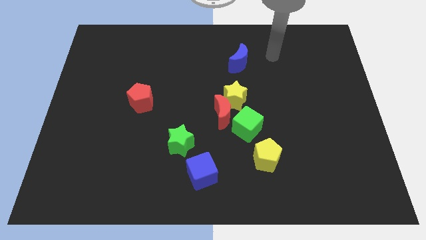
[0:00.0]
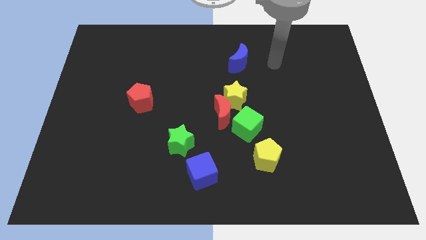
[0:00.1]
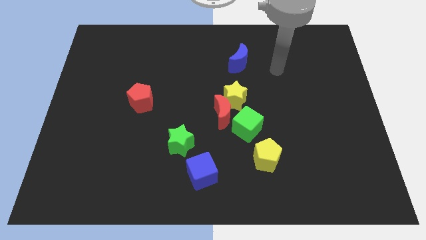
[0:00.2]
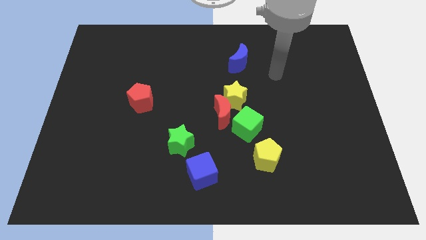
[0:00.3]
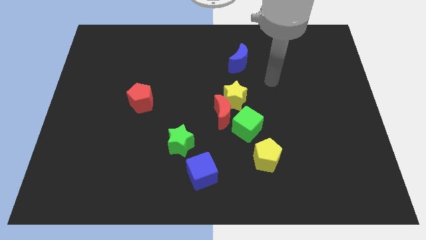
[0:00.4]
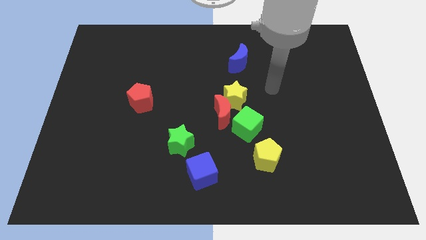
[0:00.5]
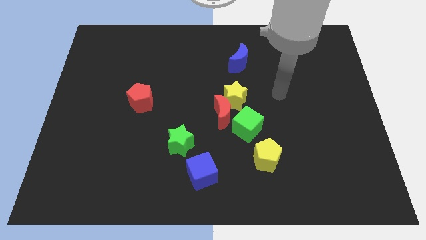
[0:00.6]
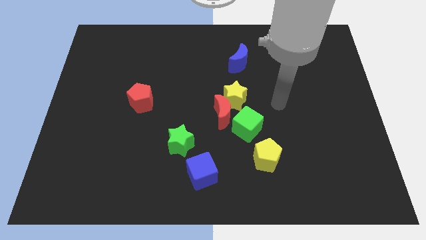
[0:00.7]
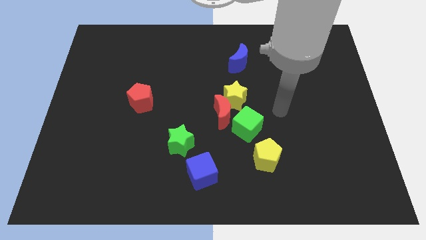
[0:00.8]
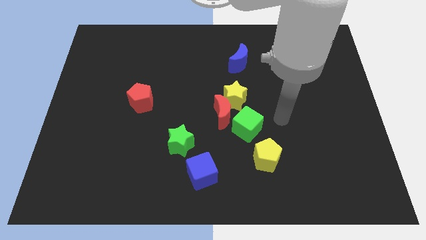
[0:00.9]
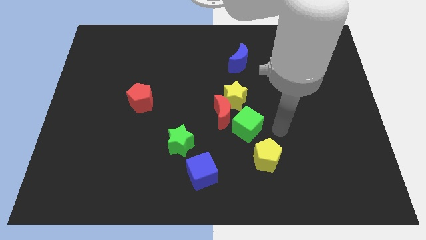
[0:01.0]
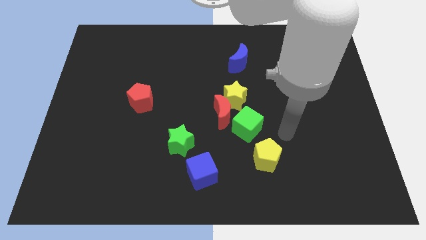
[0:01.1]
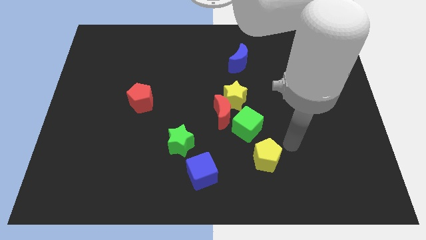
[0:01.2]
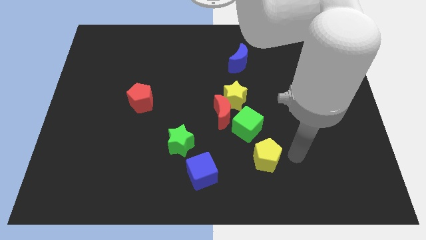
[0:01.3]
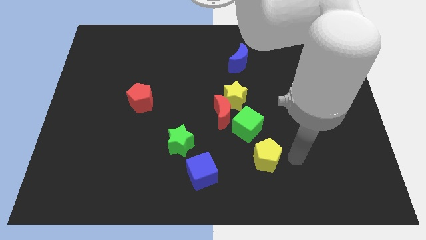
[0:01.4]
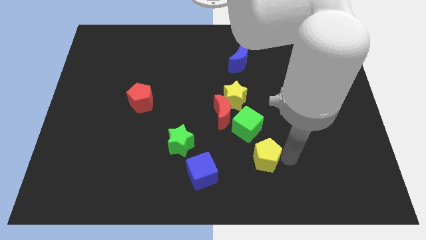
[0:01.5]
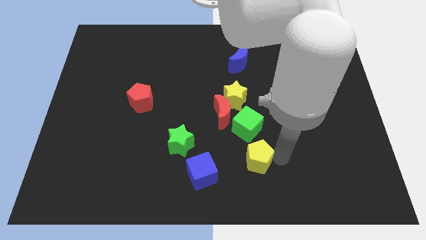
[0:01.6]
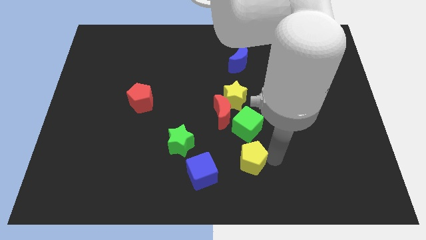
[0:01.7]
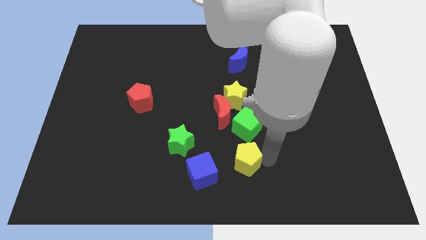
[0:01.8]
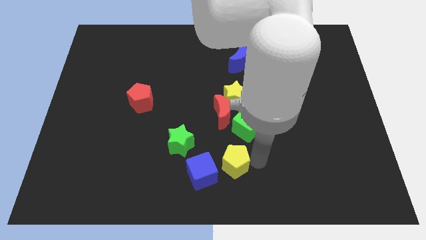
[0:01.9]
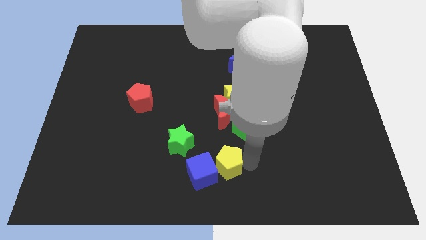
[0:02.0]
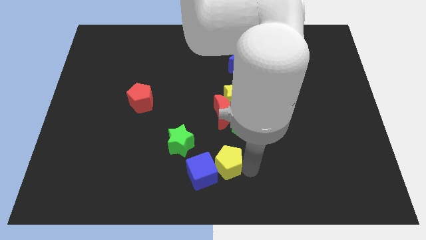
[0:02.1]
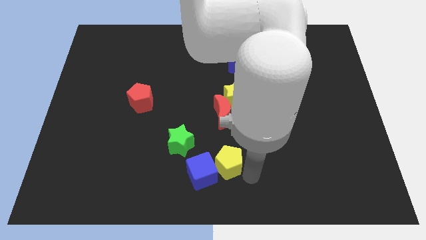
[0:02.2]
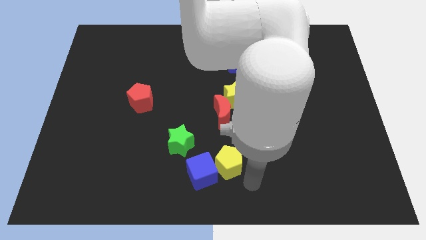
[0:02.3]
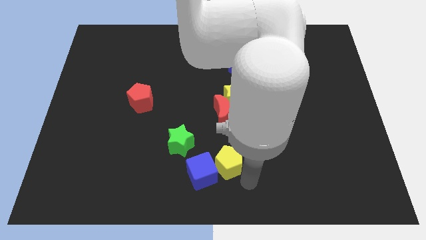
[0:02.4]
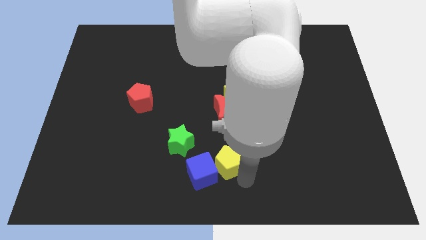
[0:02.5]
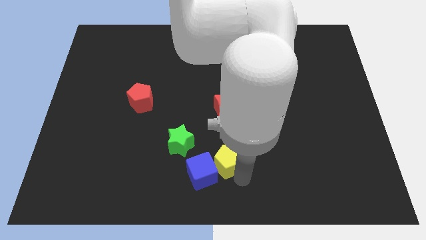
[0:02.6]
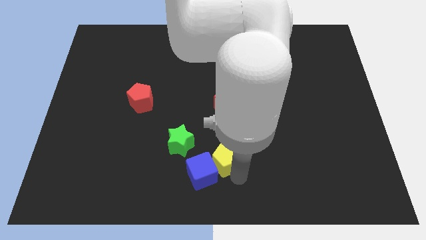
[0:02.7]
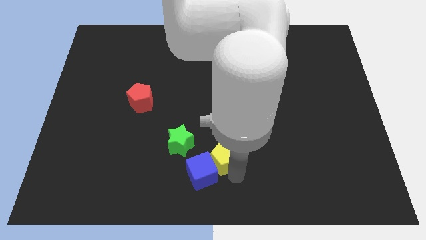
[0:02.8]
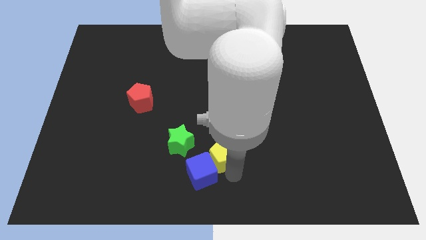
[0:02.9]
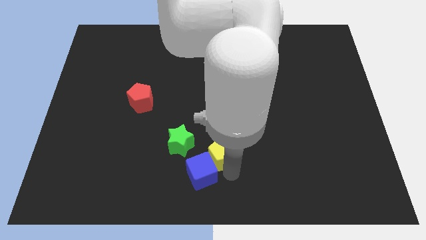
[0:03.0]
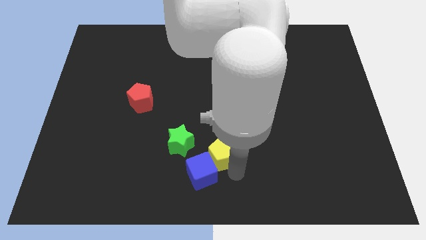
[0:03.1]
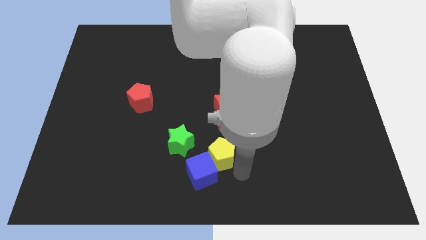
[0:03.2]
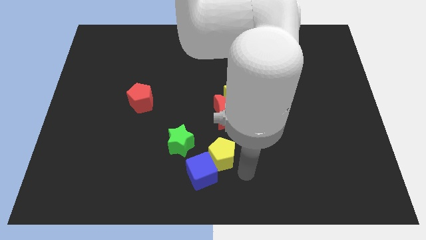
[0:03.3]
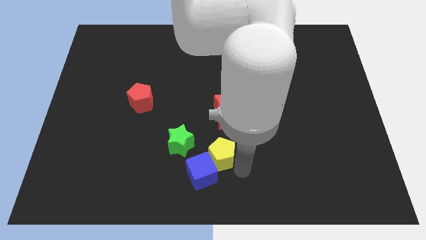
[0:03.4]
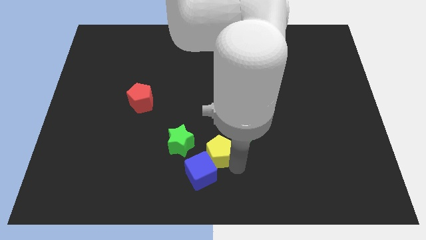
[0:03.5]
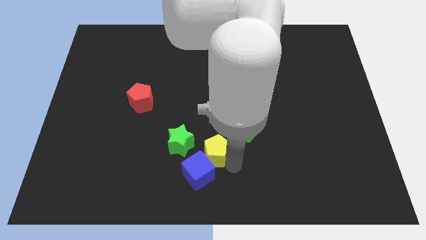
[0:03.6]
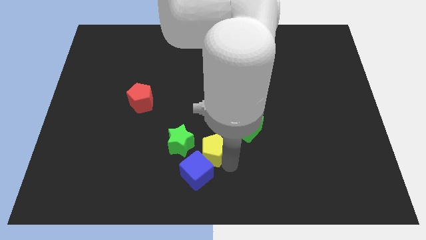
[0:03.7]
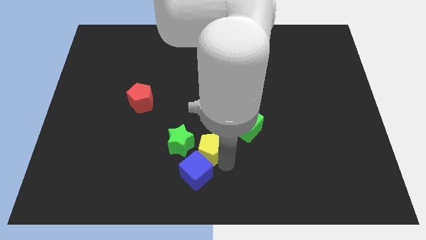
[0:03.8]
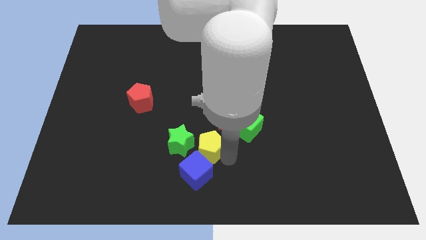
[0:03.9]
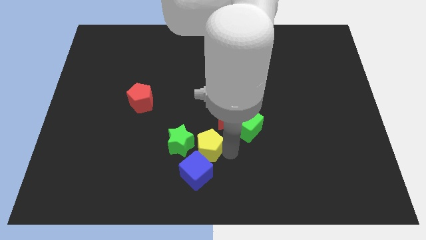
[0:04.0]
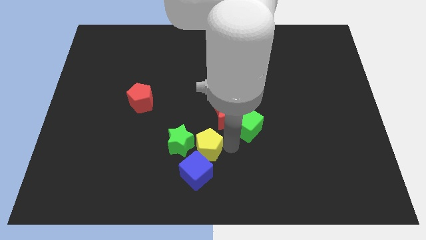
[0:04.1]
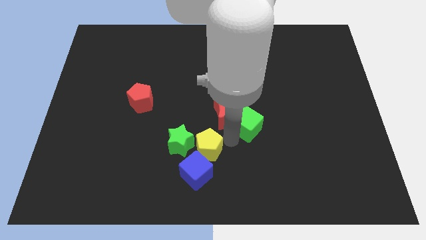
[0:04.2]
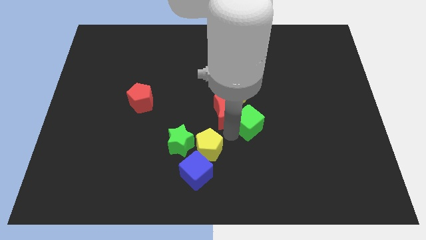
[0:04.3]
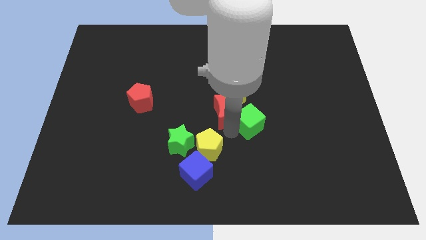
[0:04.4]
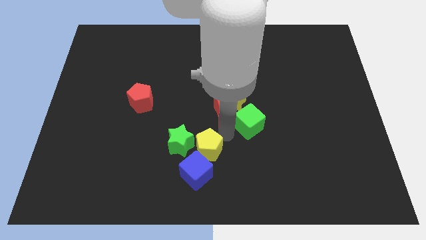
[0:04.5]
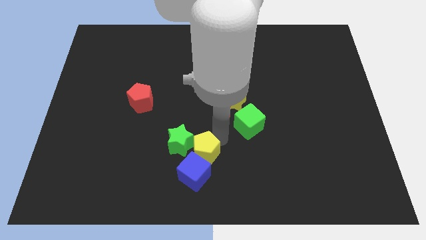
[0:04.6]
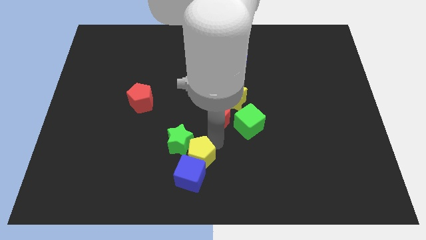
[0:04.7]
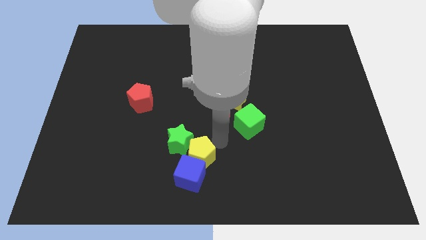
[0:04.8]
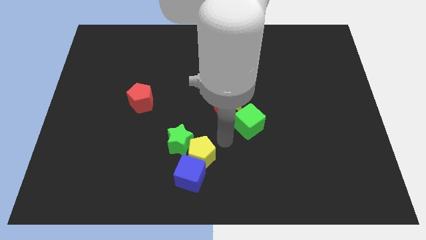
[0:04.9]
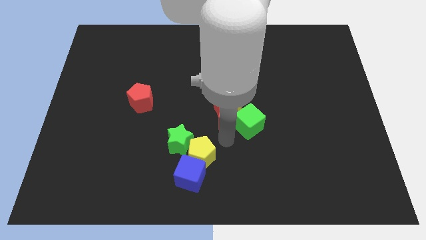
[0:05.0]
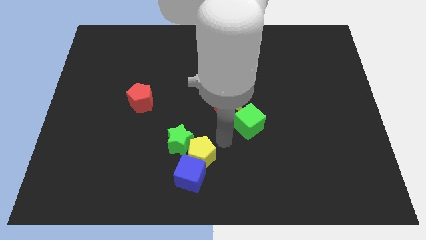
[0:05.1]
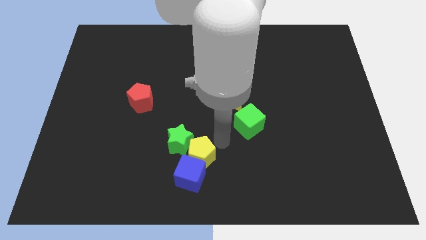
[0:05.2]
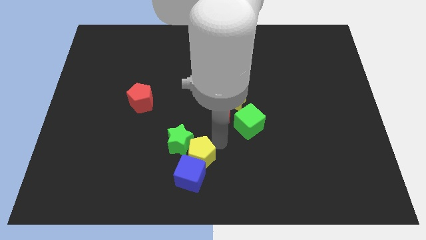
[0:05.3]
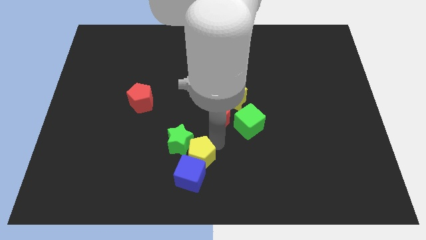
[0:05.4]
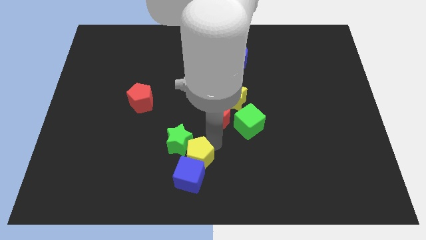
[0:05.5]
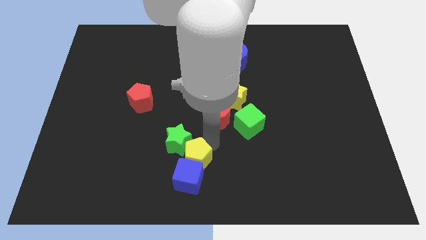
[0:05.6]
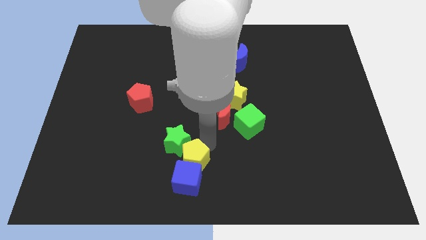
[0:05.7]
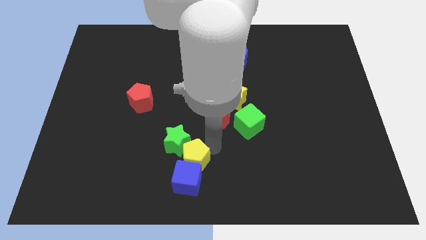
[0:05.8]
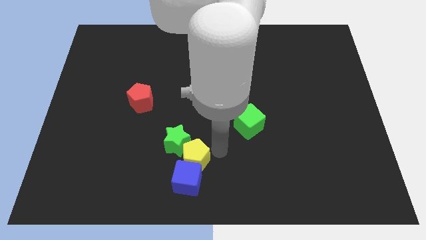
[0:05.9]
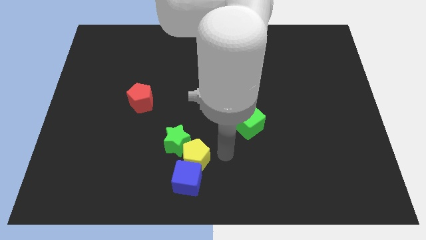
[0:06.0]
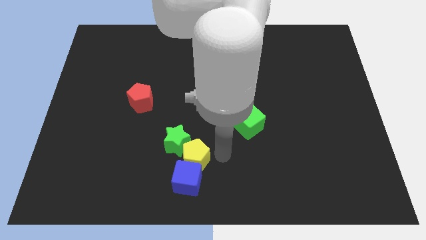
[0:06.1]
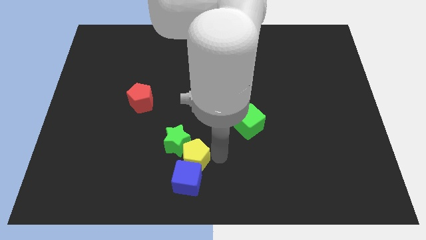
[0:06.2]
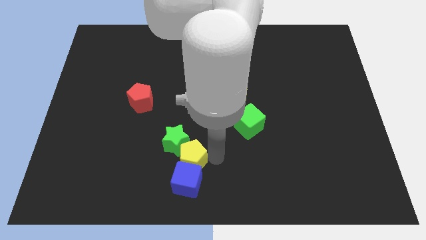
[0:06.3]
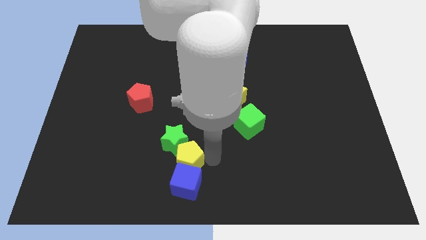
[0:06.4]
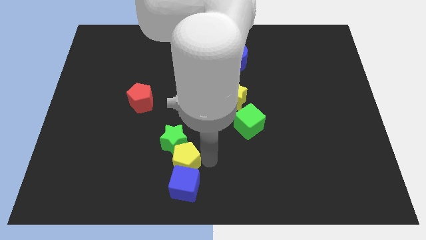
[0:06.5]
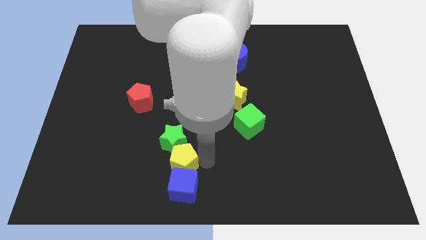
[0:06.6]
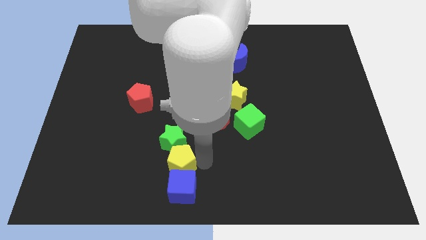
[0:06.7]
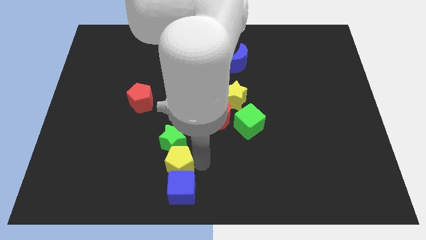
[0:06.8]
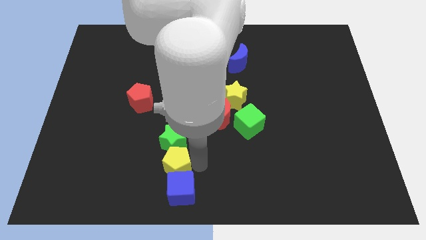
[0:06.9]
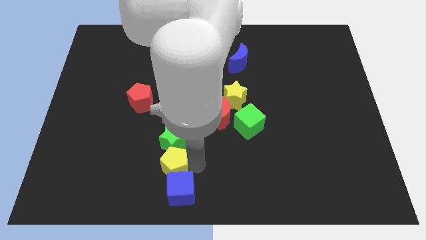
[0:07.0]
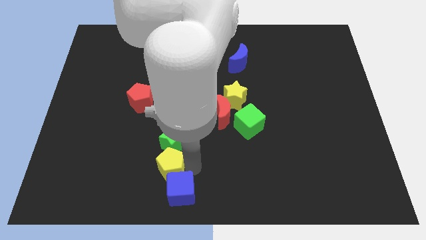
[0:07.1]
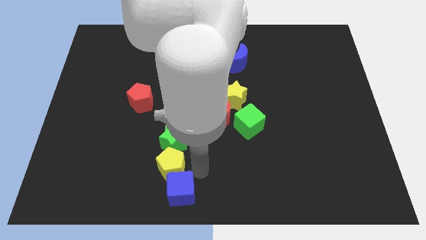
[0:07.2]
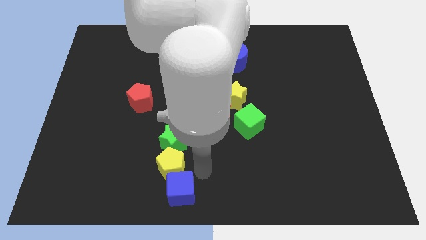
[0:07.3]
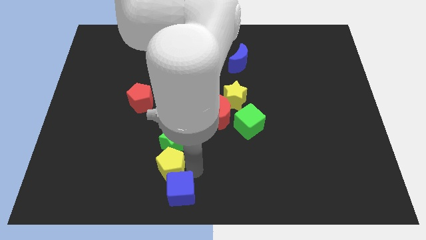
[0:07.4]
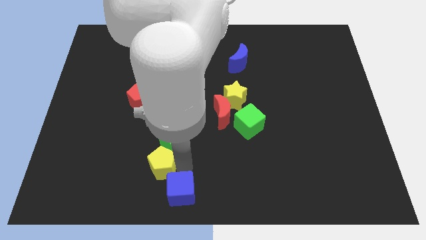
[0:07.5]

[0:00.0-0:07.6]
push the yellow pentagon to the left

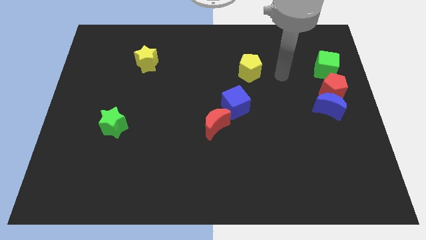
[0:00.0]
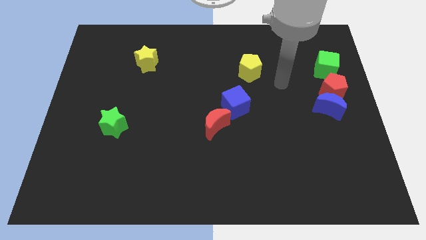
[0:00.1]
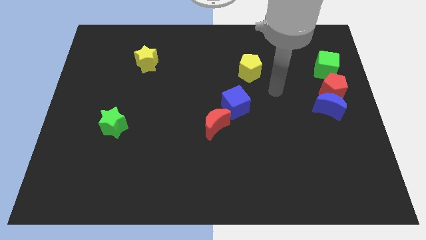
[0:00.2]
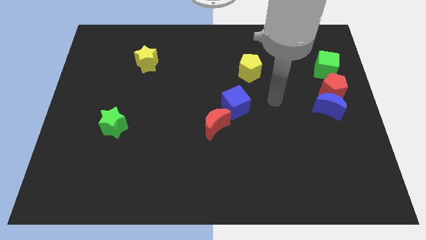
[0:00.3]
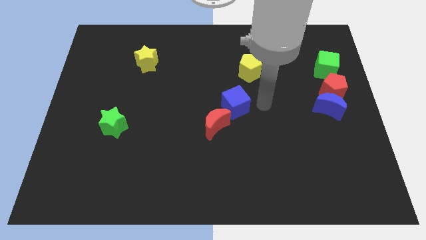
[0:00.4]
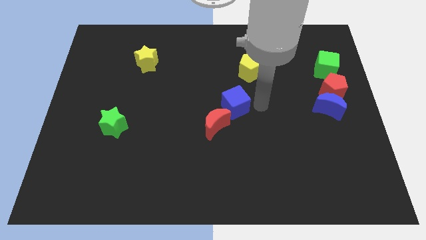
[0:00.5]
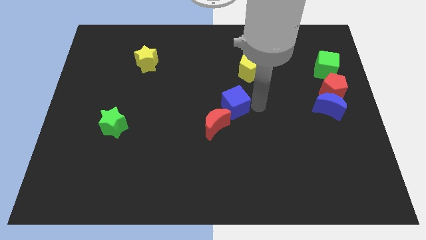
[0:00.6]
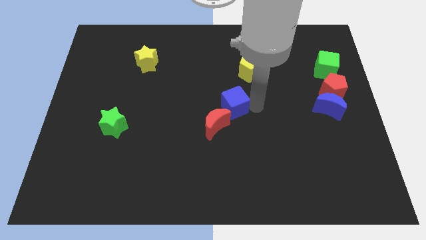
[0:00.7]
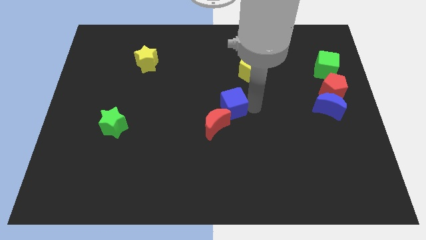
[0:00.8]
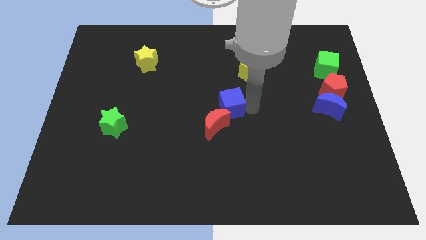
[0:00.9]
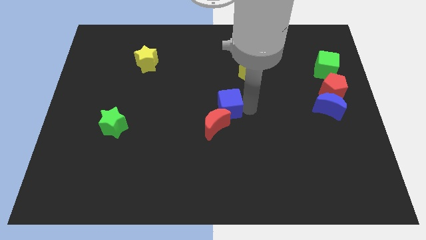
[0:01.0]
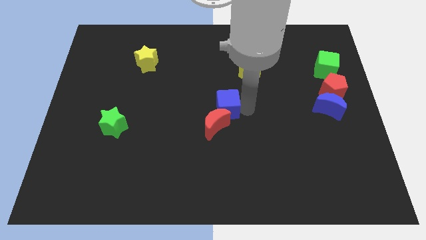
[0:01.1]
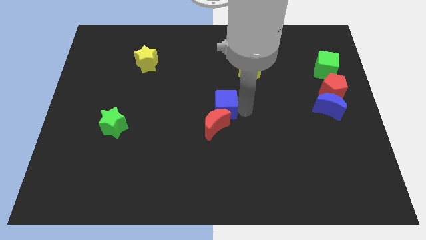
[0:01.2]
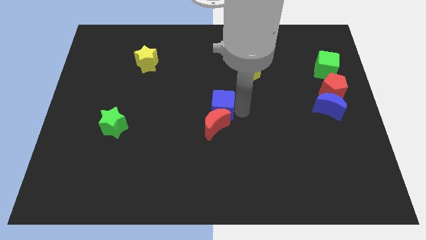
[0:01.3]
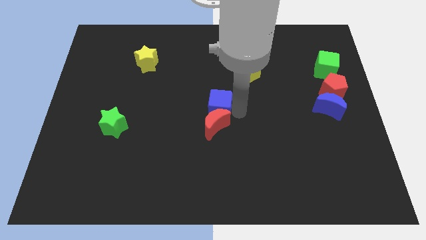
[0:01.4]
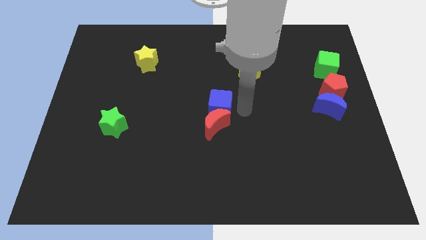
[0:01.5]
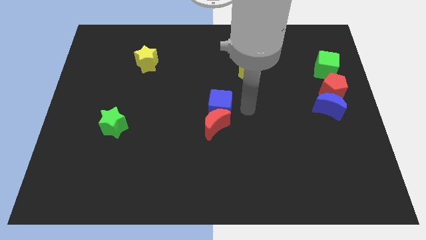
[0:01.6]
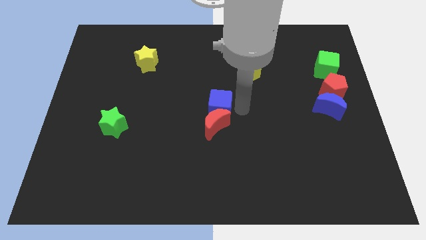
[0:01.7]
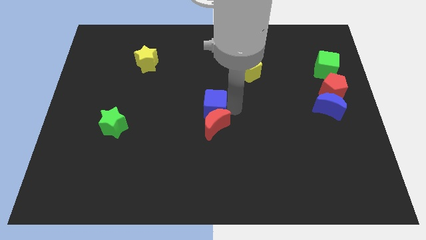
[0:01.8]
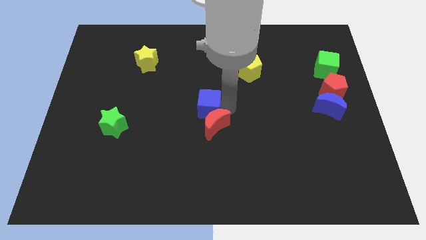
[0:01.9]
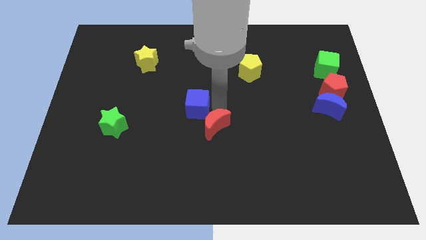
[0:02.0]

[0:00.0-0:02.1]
slightly move the blue cube to the left
